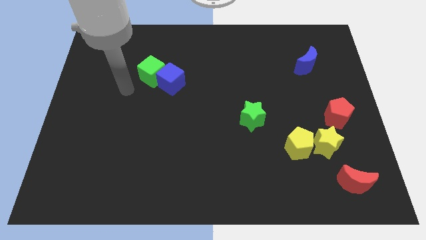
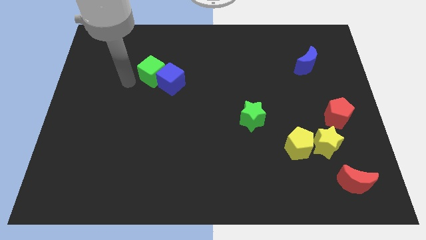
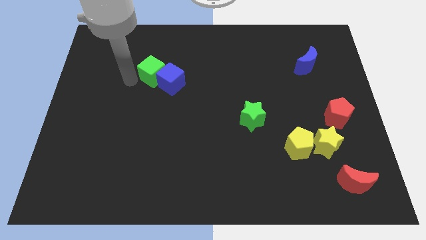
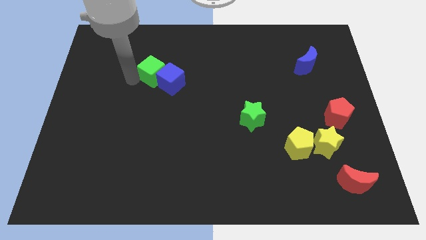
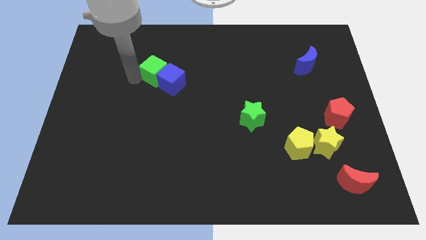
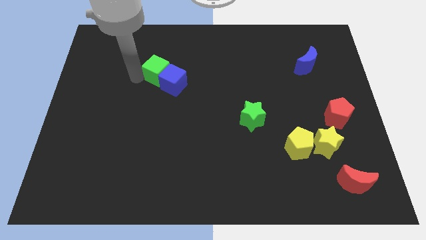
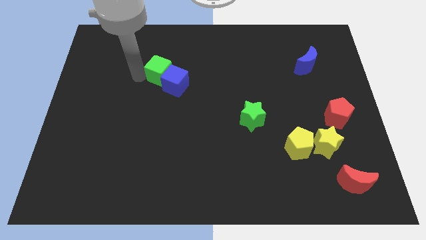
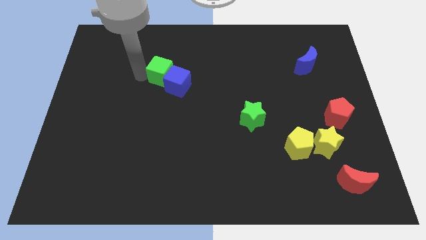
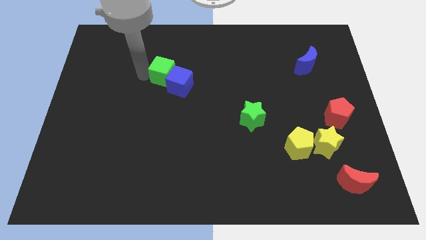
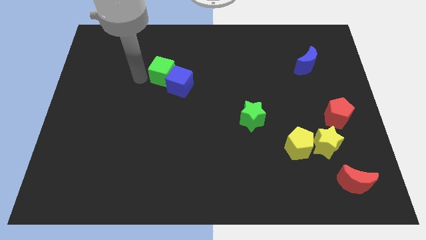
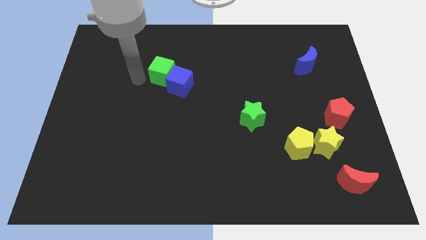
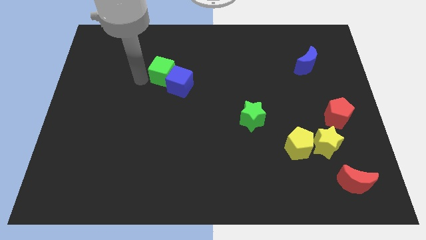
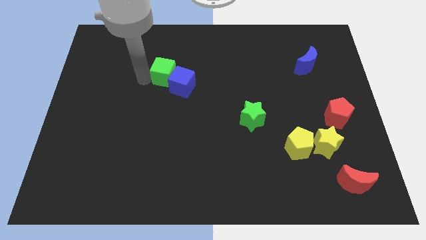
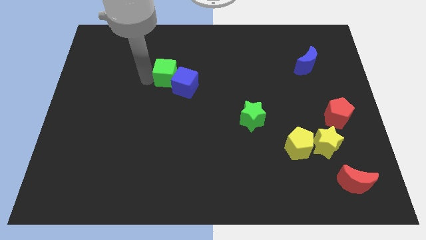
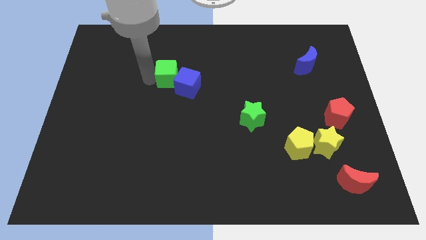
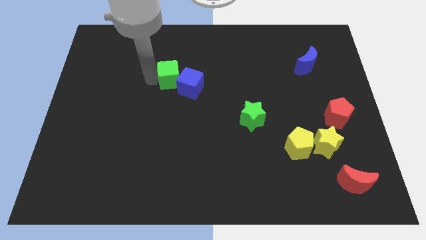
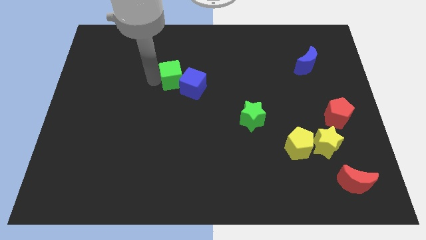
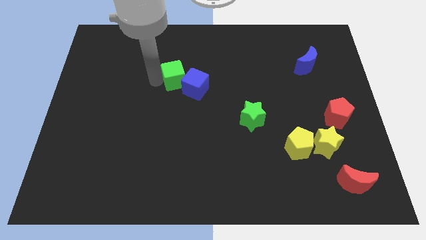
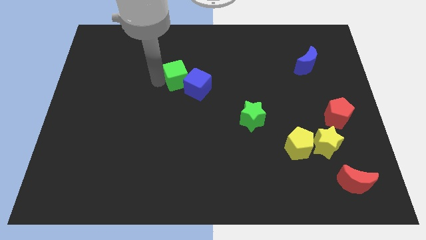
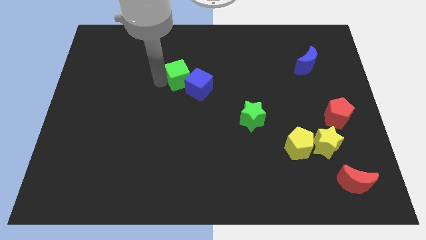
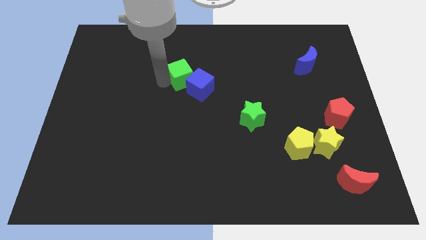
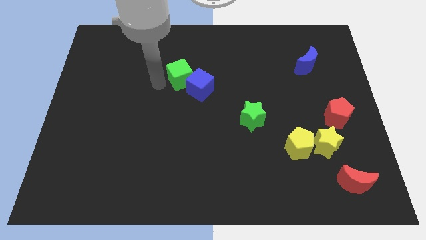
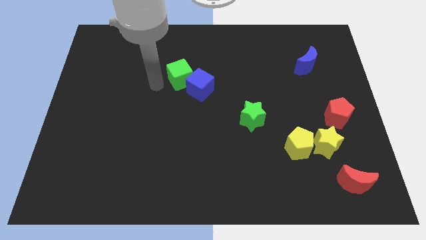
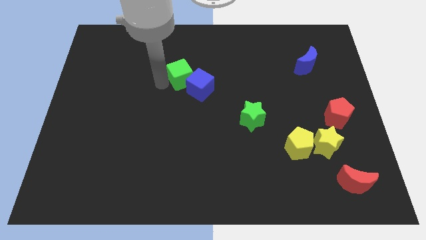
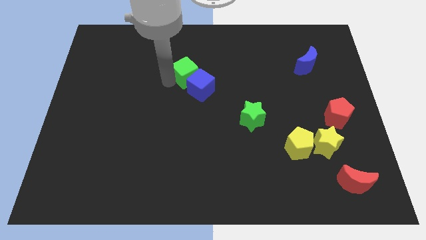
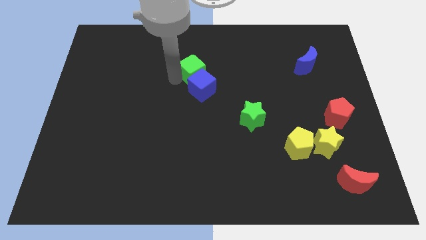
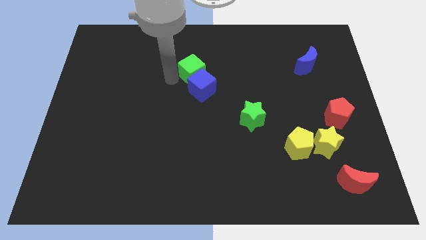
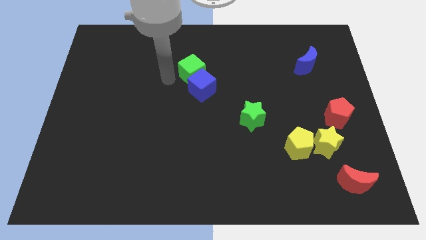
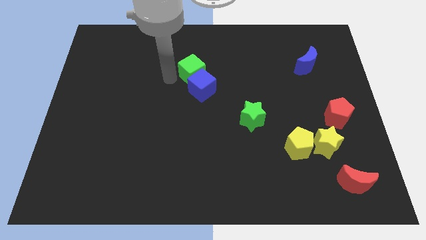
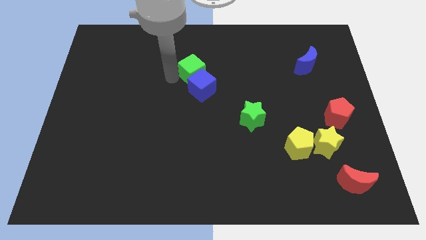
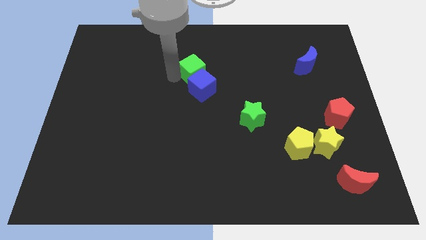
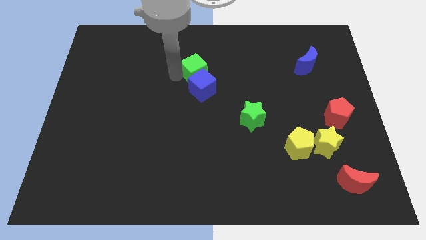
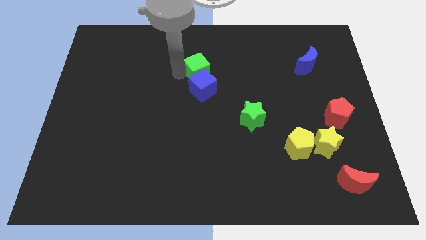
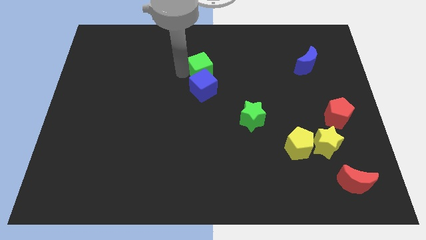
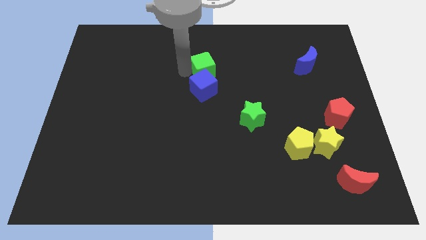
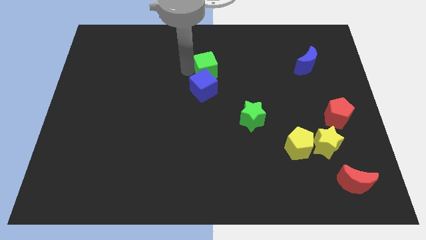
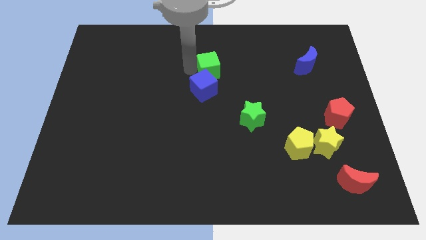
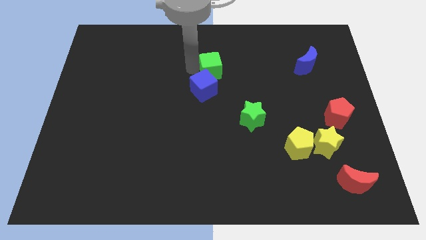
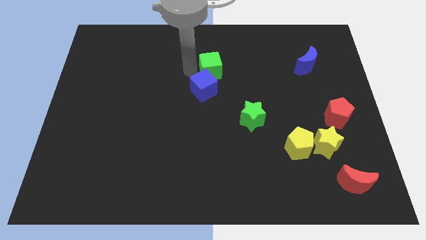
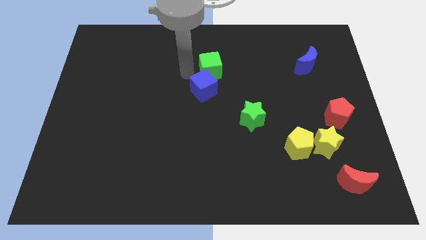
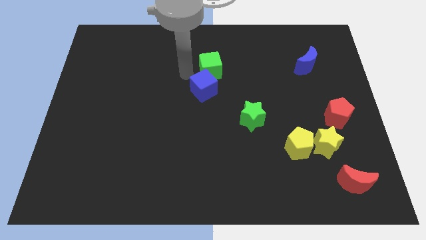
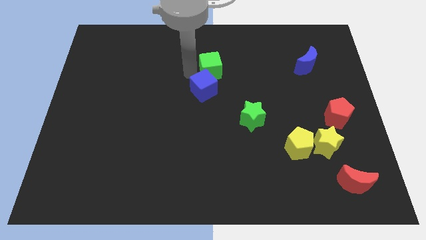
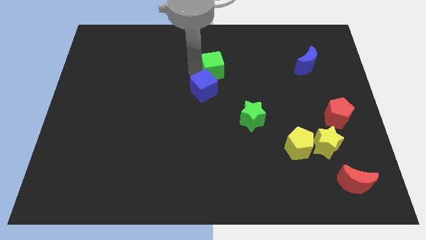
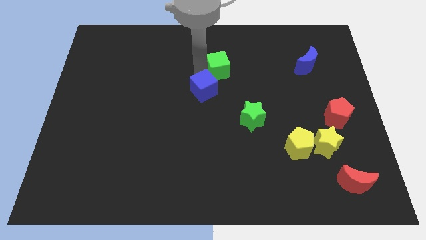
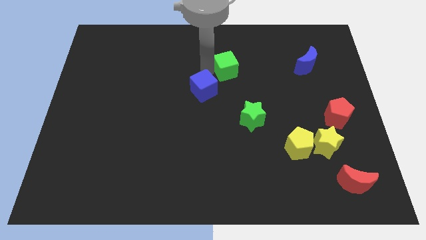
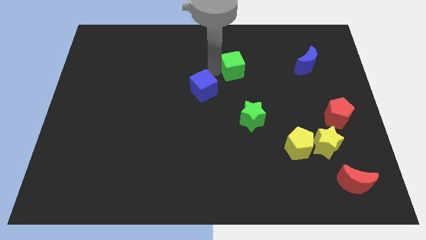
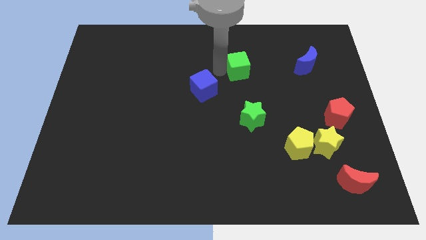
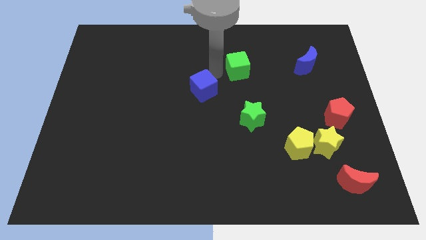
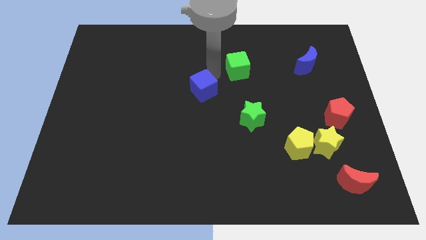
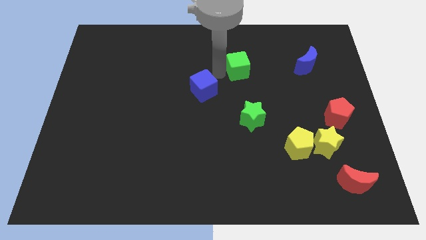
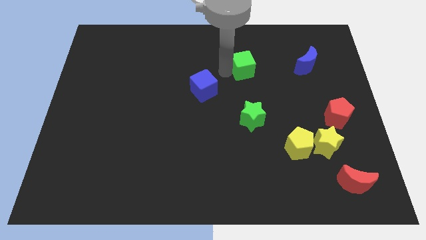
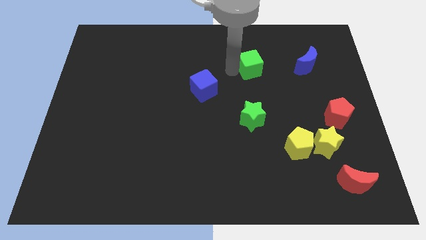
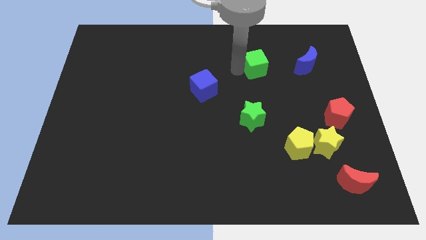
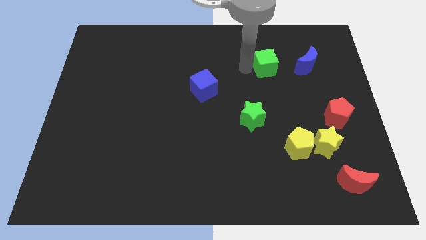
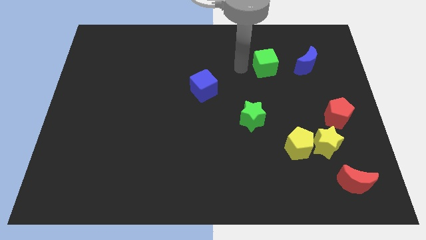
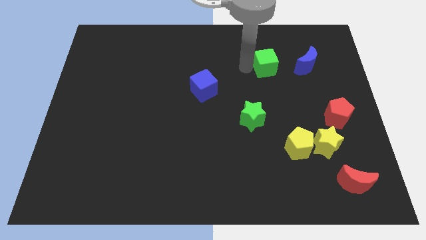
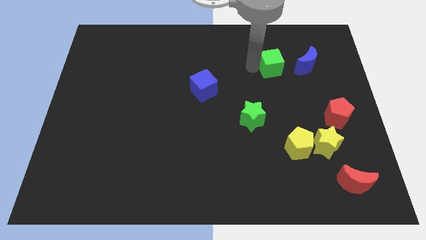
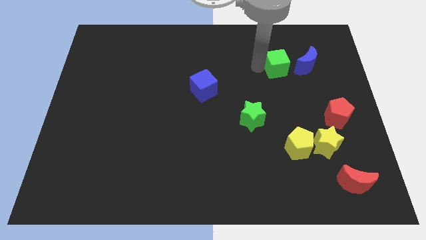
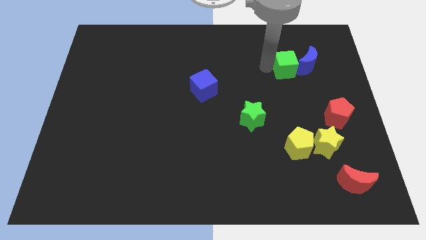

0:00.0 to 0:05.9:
put the green cube close to the blue moon

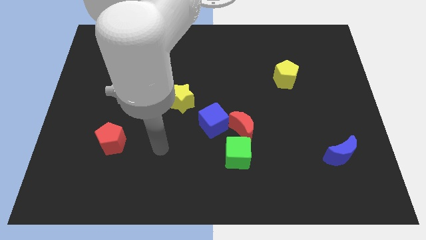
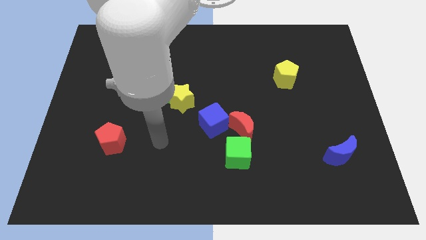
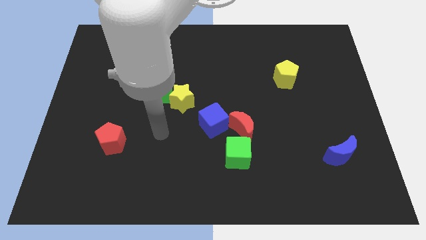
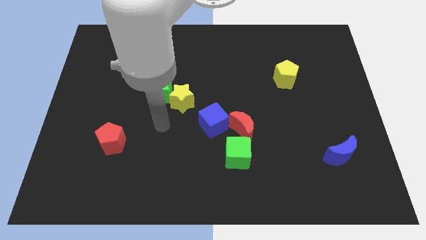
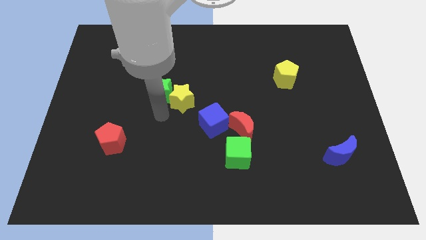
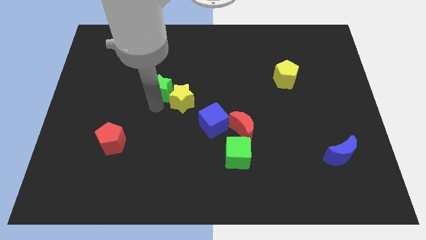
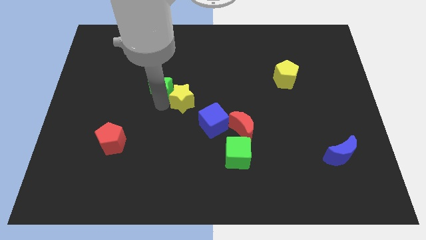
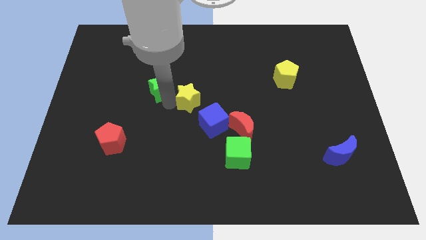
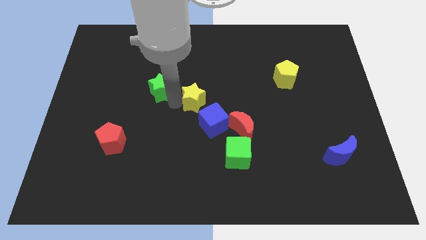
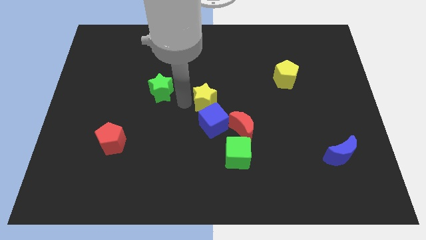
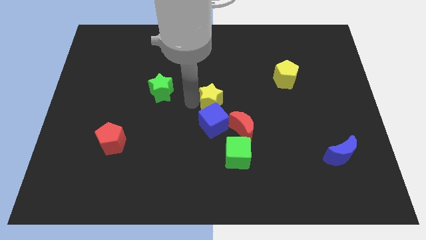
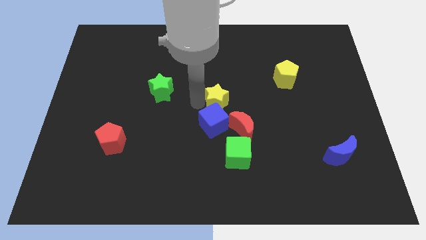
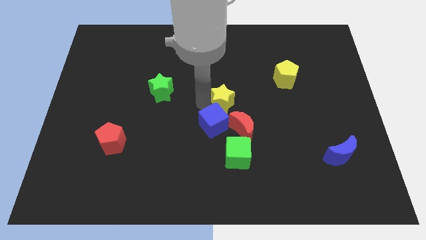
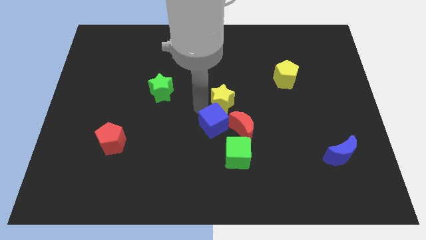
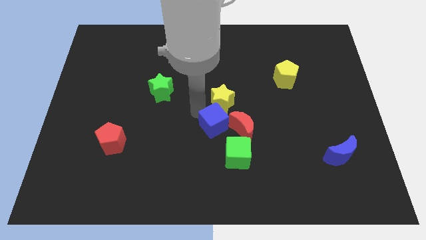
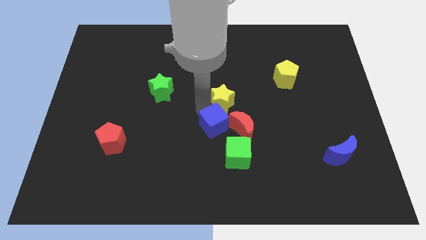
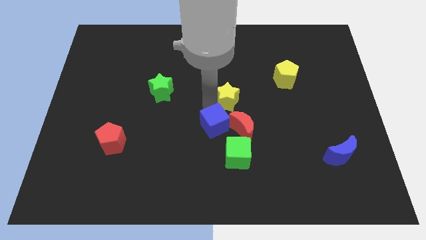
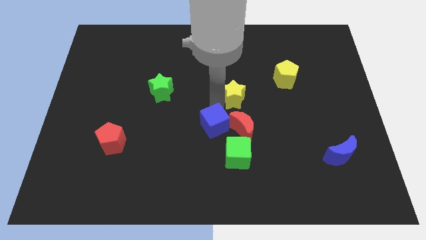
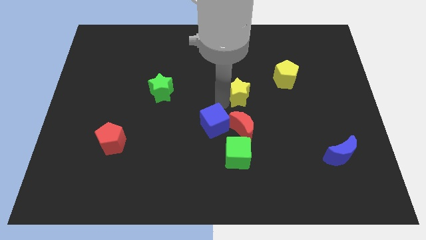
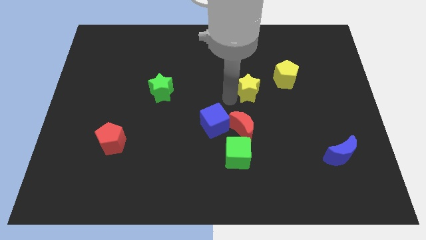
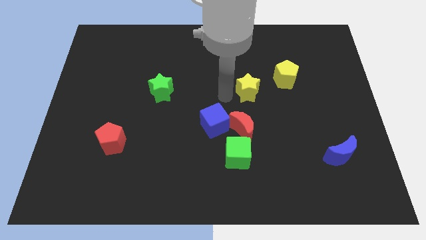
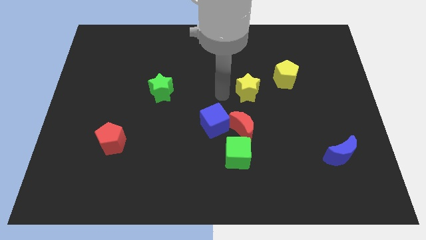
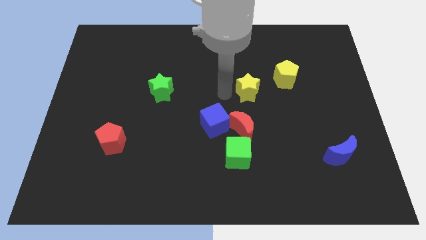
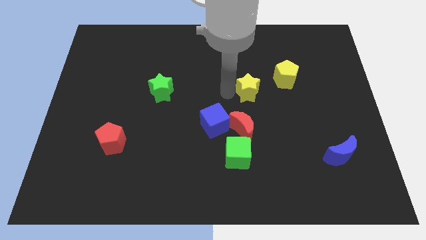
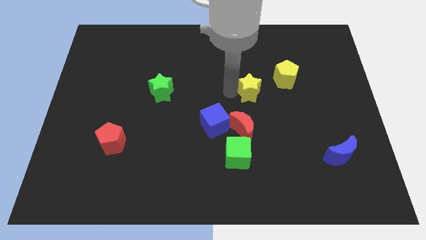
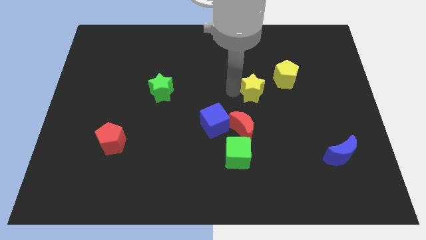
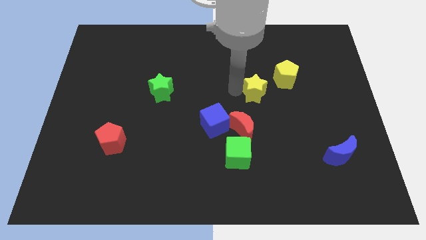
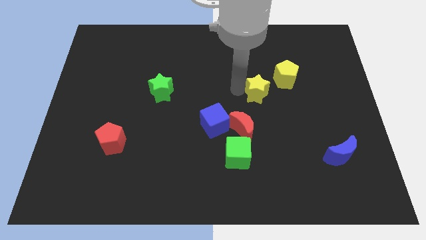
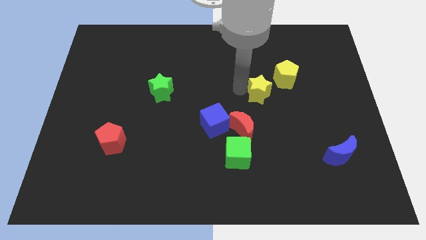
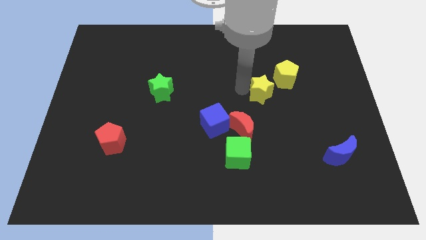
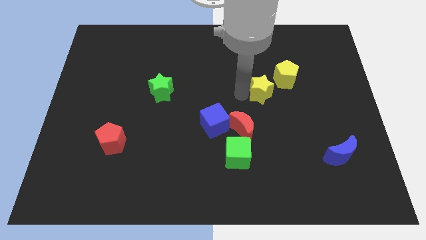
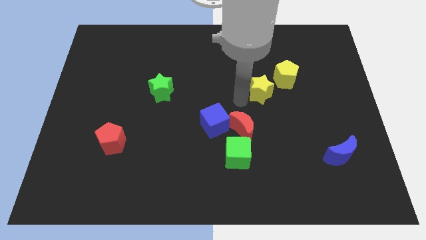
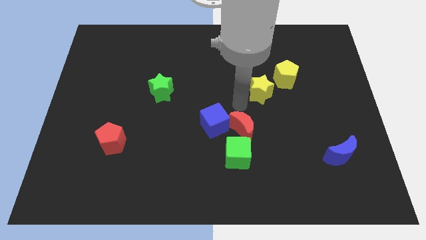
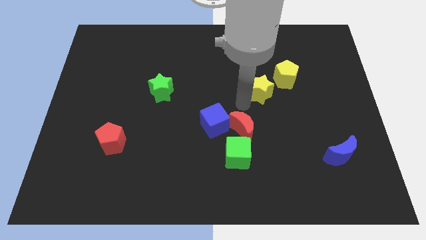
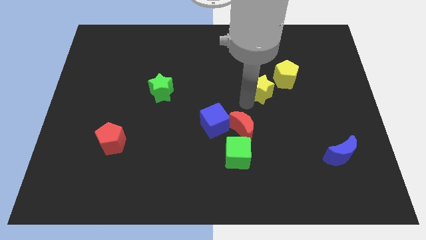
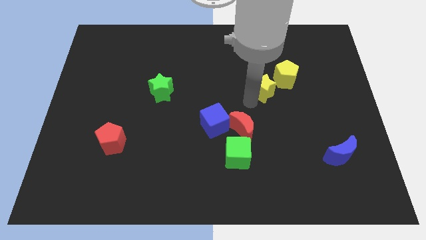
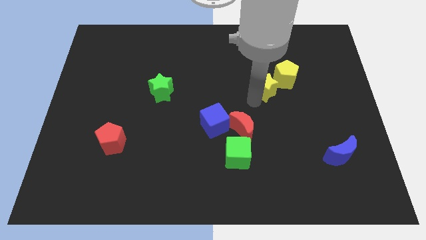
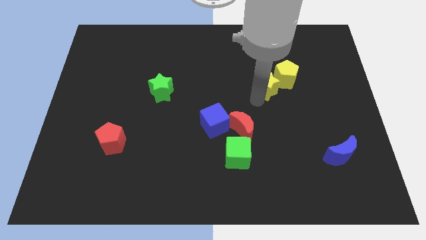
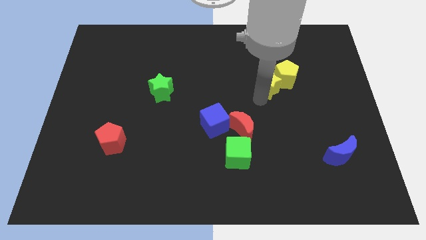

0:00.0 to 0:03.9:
move the yellow star towards the yellow pentagon
